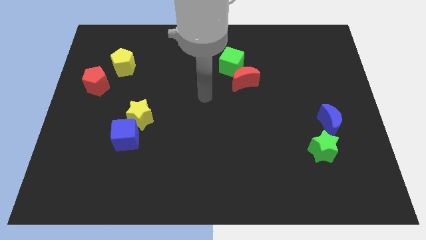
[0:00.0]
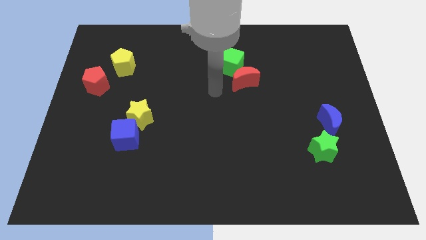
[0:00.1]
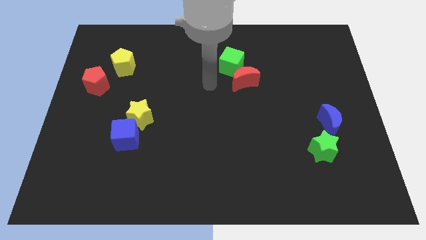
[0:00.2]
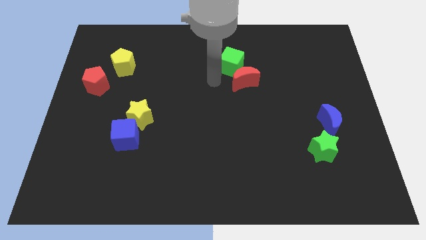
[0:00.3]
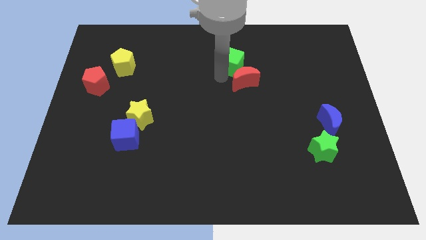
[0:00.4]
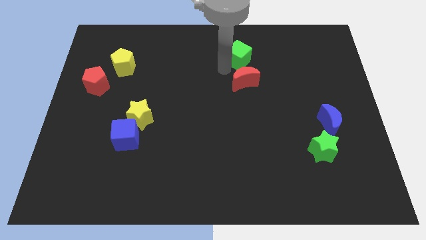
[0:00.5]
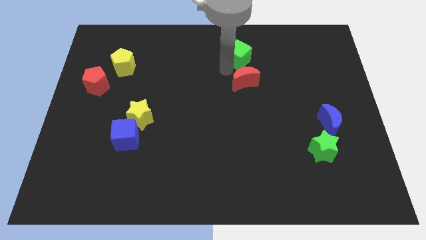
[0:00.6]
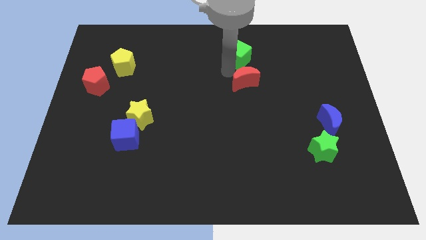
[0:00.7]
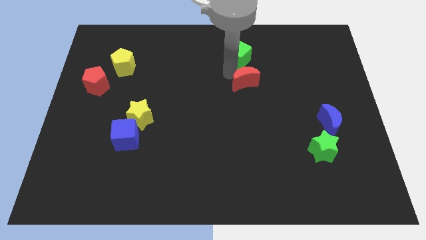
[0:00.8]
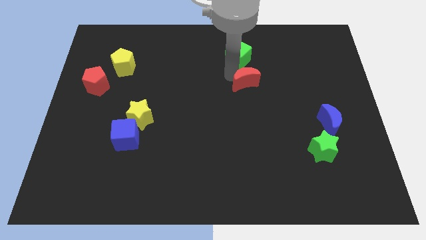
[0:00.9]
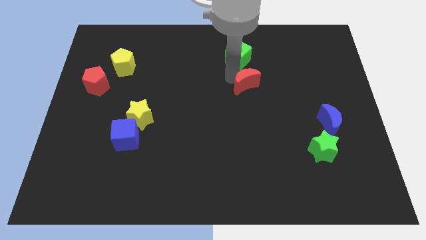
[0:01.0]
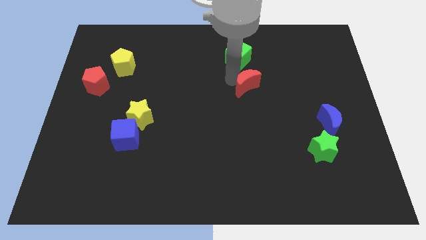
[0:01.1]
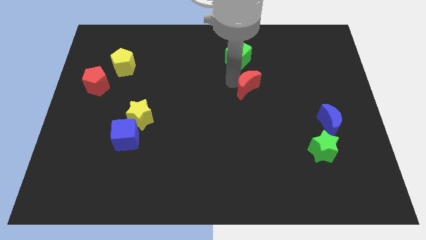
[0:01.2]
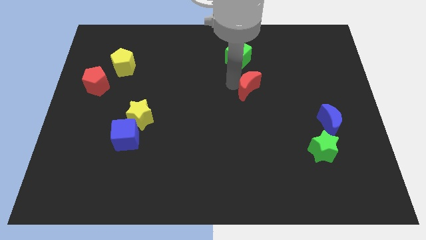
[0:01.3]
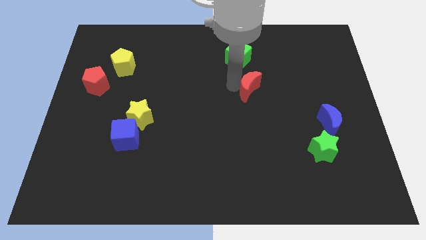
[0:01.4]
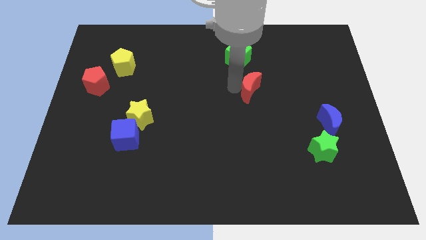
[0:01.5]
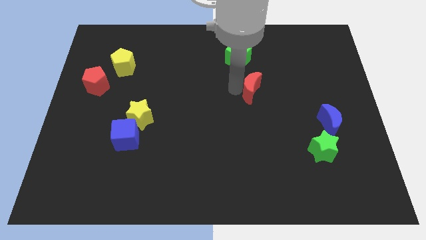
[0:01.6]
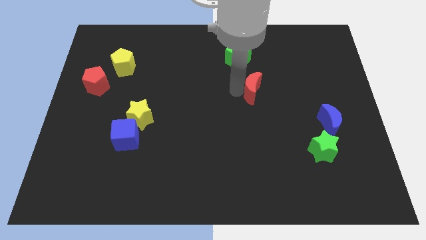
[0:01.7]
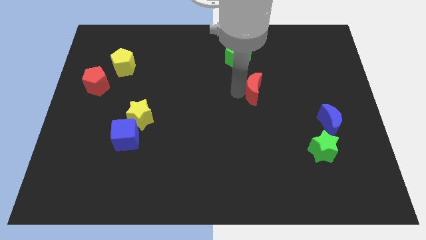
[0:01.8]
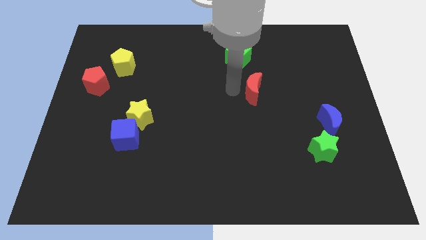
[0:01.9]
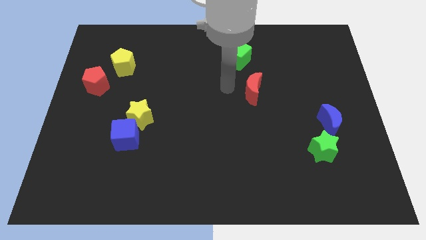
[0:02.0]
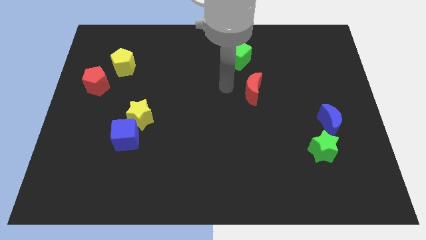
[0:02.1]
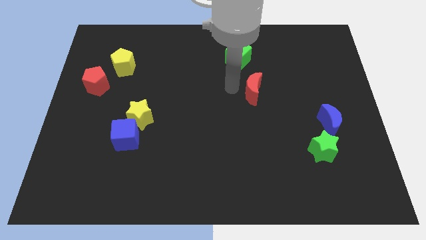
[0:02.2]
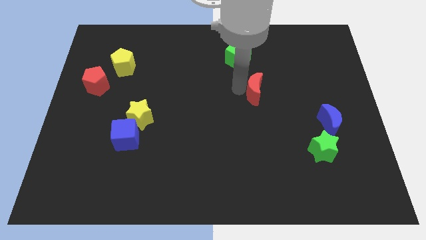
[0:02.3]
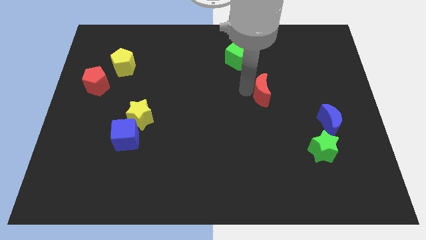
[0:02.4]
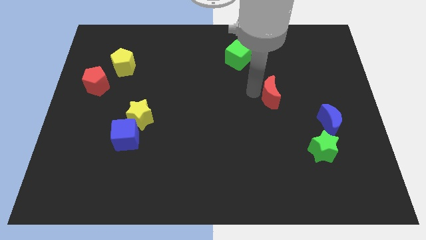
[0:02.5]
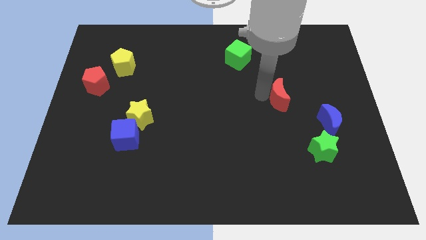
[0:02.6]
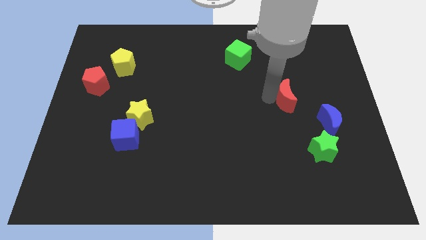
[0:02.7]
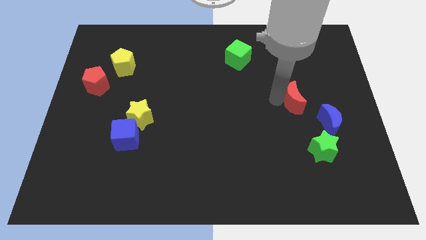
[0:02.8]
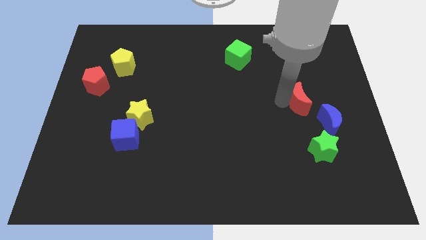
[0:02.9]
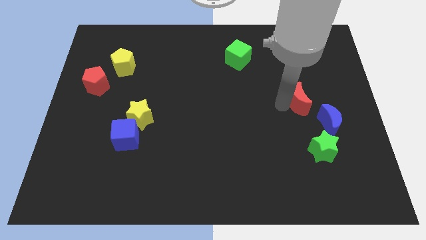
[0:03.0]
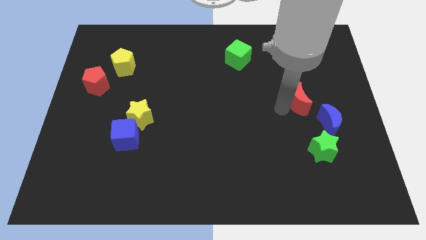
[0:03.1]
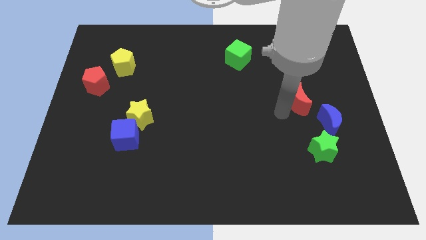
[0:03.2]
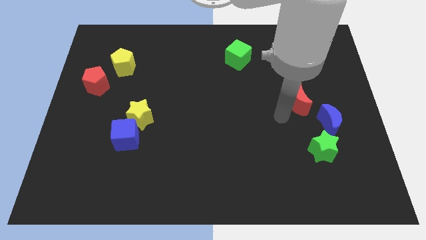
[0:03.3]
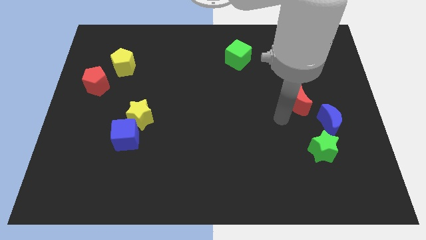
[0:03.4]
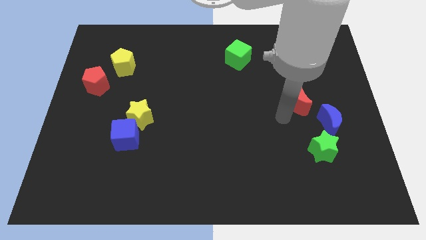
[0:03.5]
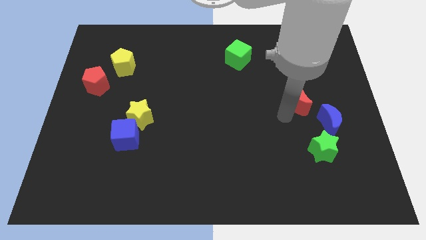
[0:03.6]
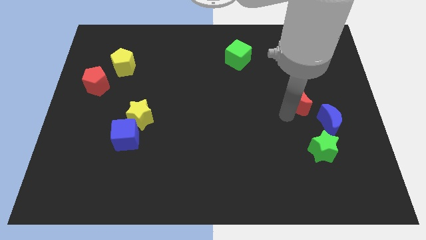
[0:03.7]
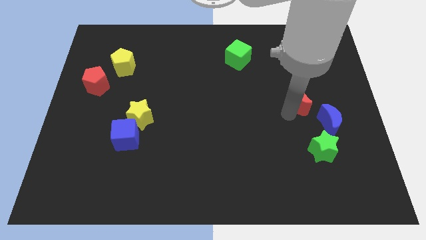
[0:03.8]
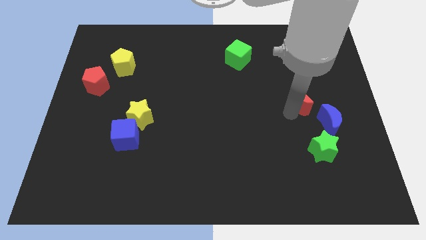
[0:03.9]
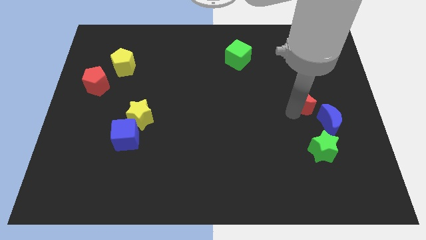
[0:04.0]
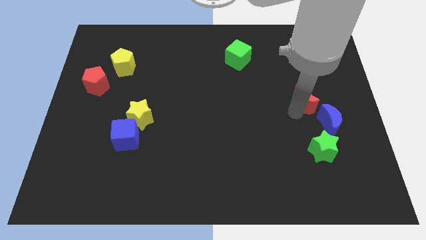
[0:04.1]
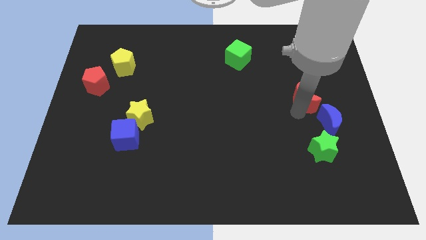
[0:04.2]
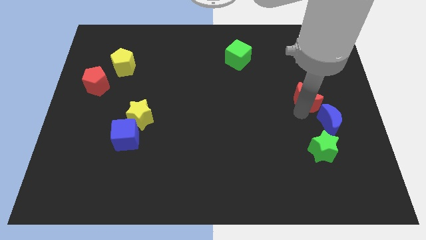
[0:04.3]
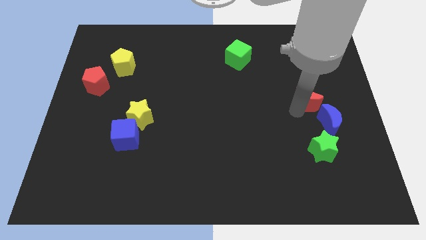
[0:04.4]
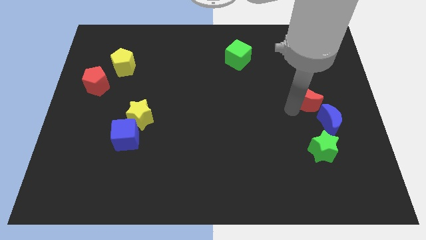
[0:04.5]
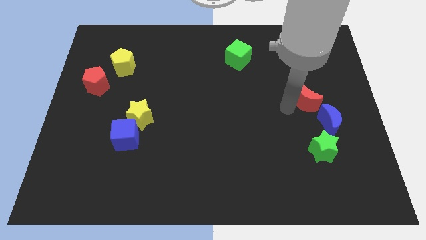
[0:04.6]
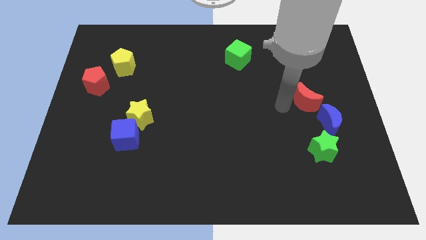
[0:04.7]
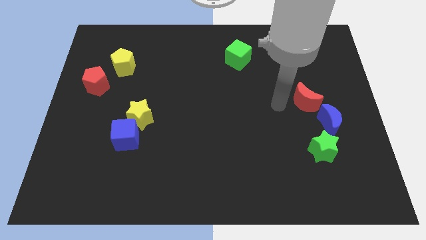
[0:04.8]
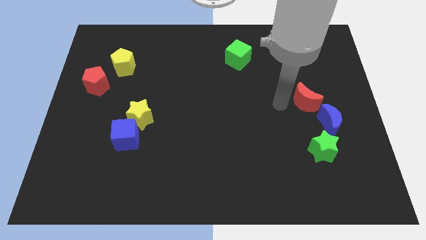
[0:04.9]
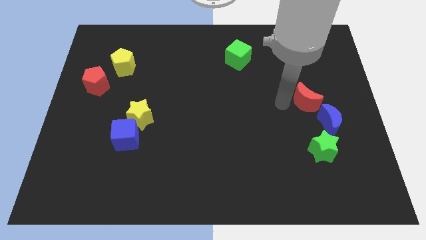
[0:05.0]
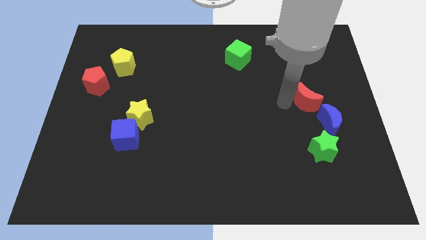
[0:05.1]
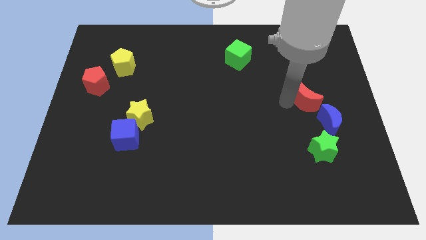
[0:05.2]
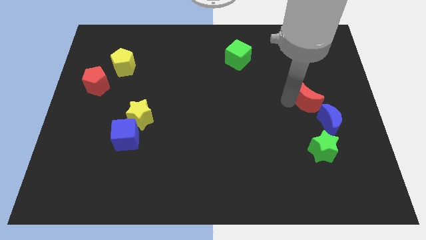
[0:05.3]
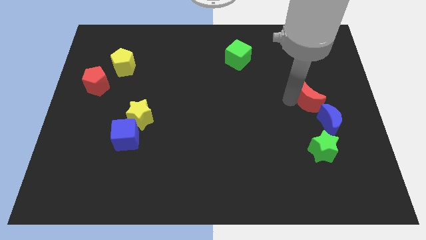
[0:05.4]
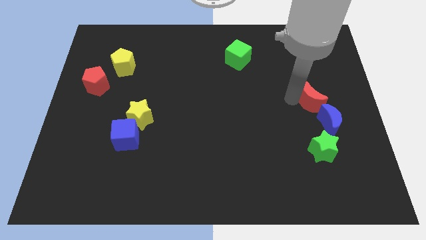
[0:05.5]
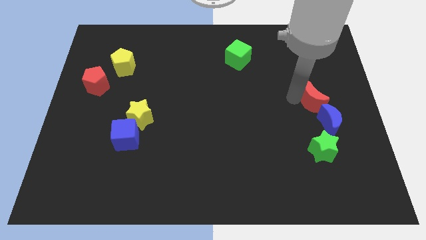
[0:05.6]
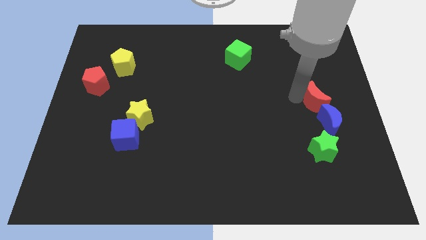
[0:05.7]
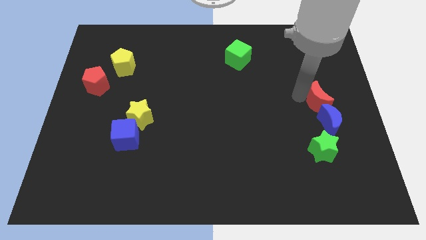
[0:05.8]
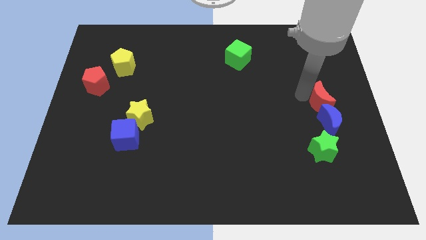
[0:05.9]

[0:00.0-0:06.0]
put the red moon to the right side
